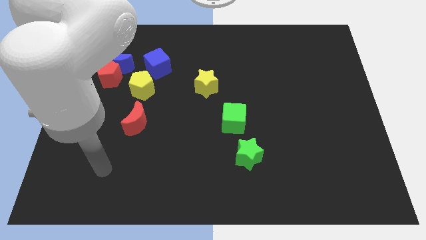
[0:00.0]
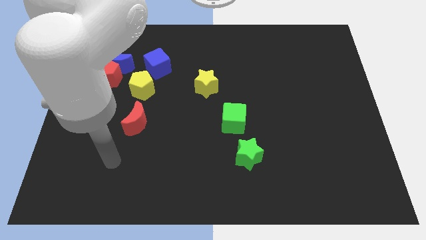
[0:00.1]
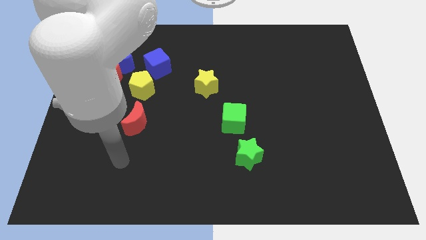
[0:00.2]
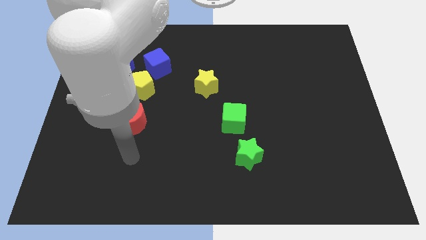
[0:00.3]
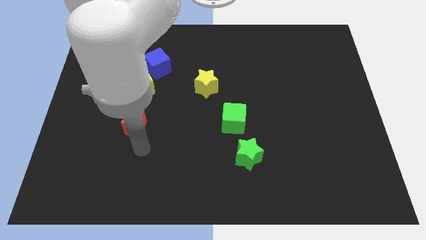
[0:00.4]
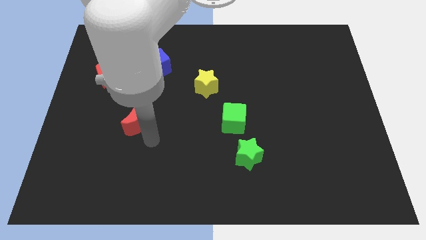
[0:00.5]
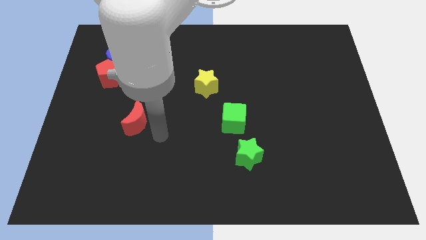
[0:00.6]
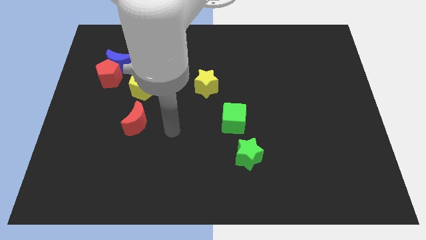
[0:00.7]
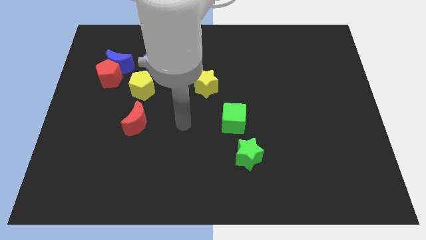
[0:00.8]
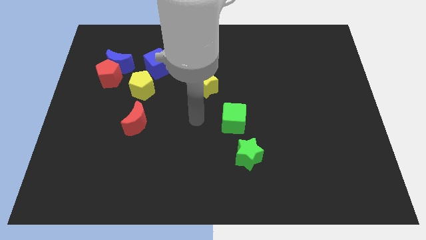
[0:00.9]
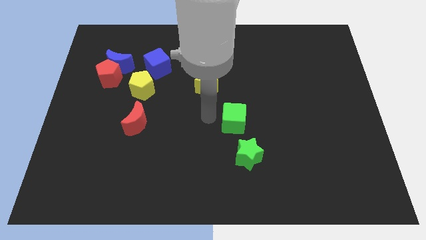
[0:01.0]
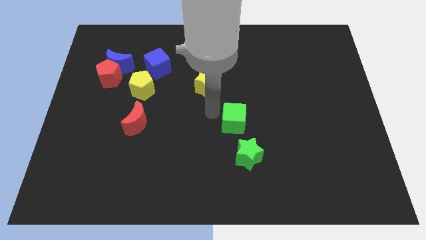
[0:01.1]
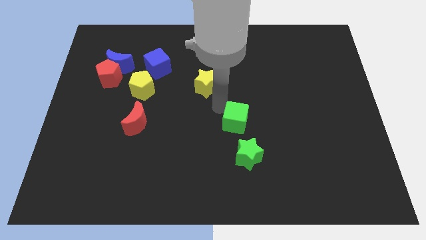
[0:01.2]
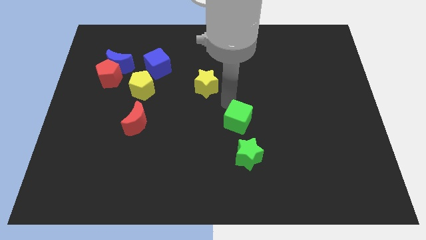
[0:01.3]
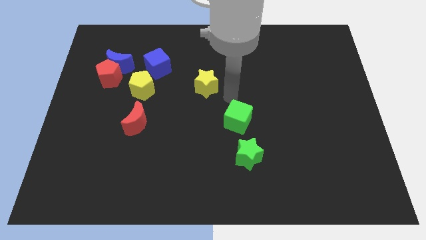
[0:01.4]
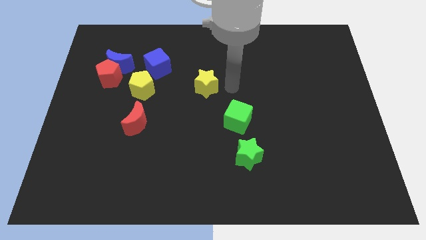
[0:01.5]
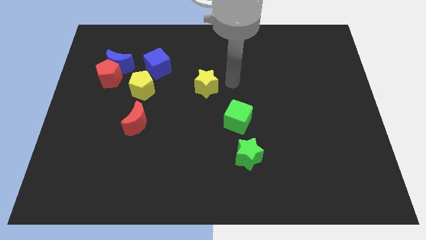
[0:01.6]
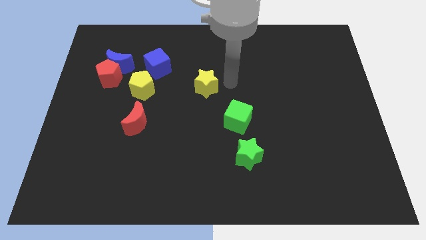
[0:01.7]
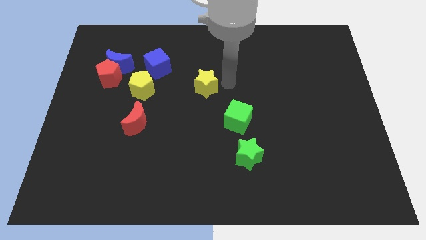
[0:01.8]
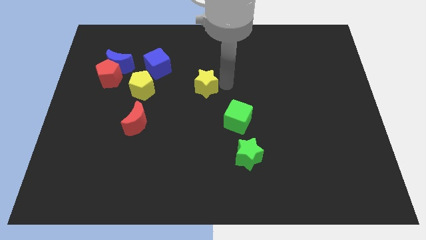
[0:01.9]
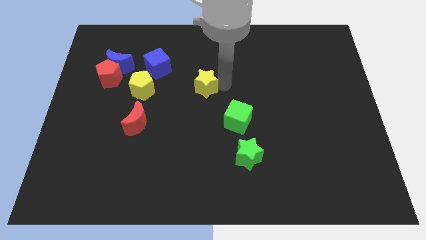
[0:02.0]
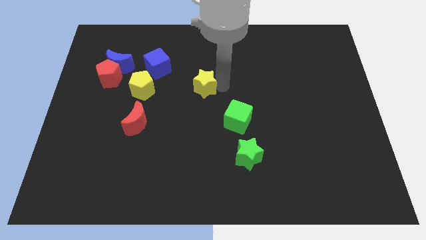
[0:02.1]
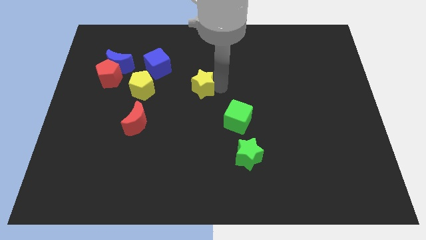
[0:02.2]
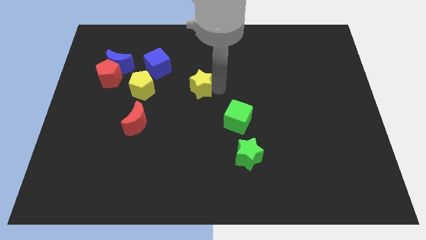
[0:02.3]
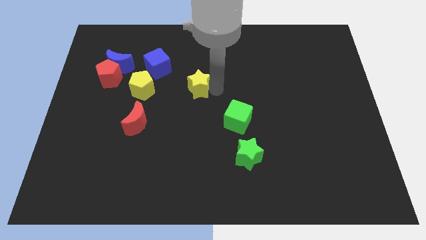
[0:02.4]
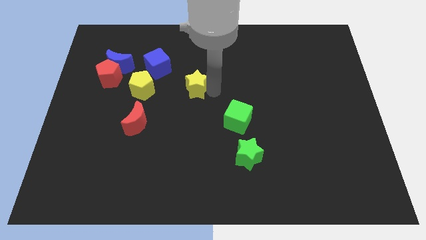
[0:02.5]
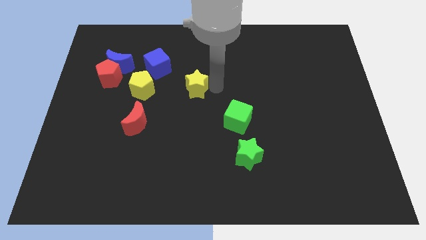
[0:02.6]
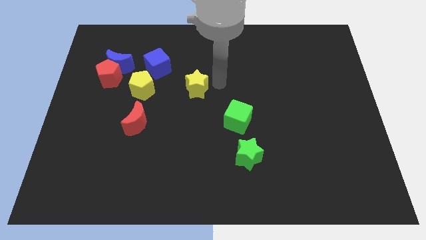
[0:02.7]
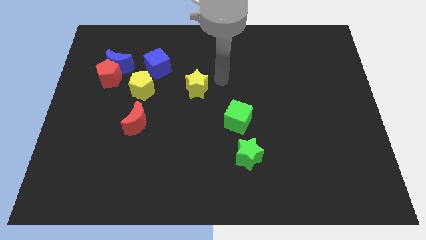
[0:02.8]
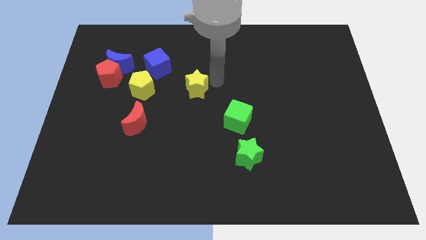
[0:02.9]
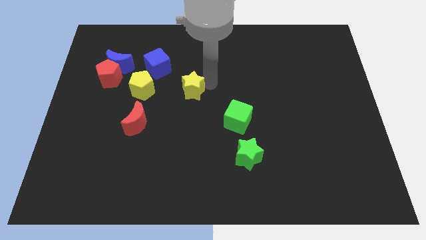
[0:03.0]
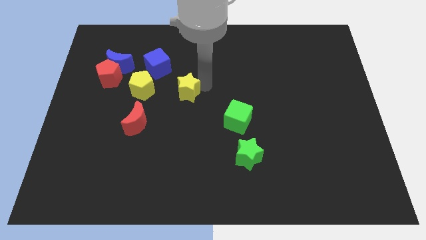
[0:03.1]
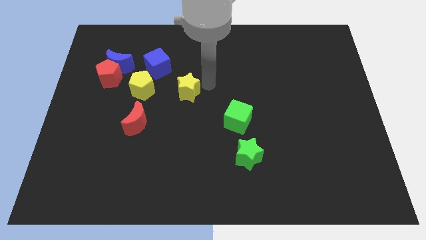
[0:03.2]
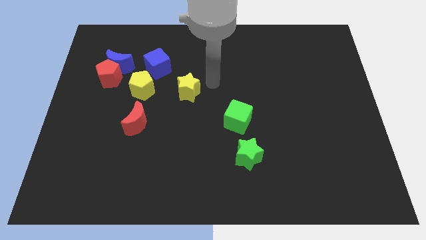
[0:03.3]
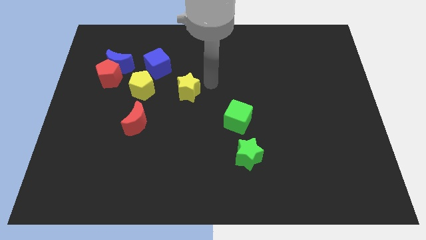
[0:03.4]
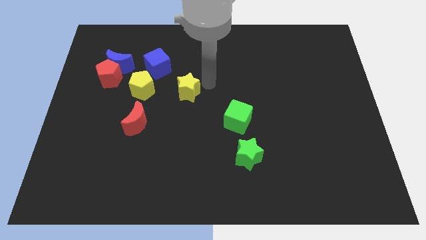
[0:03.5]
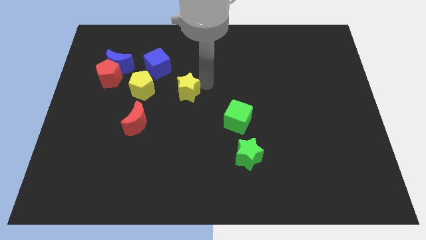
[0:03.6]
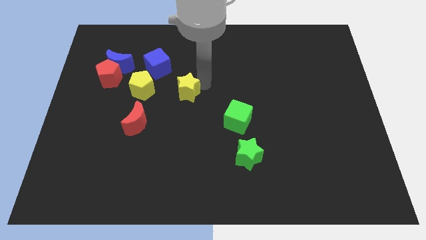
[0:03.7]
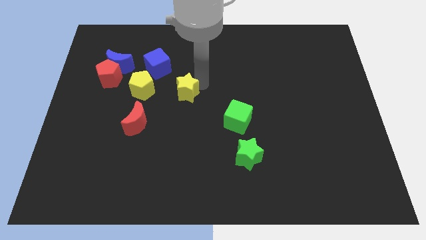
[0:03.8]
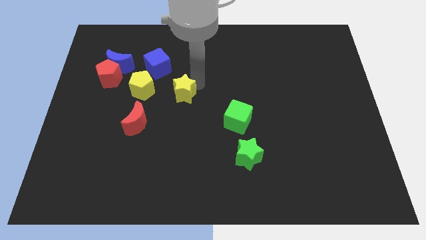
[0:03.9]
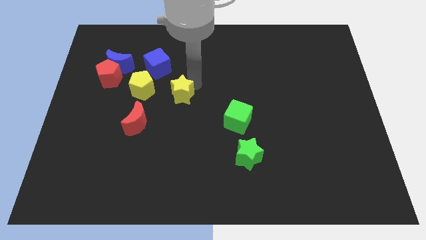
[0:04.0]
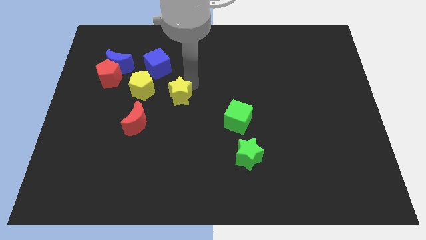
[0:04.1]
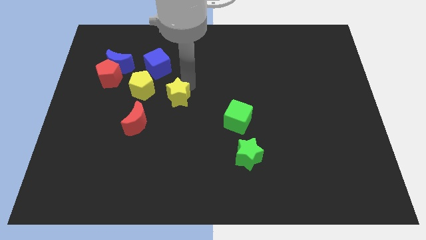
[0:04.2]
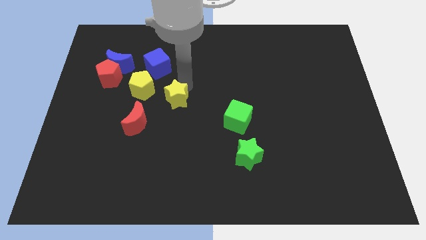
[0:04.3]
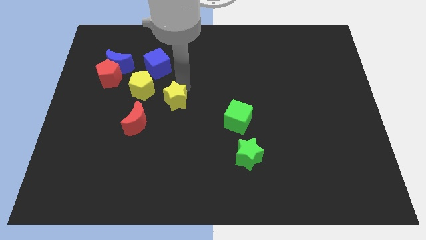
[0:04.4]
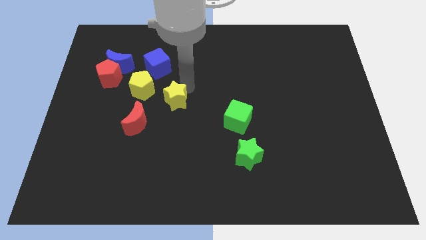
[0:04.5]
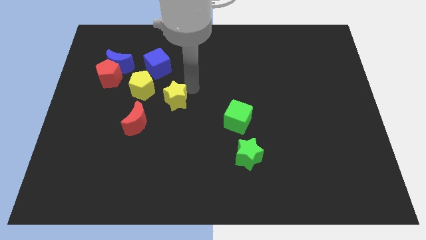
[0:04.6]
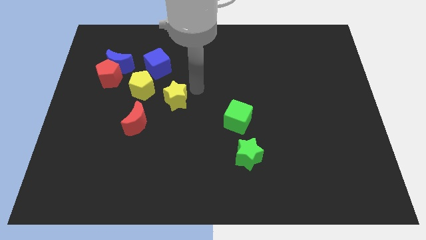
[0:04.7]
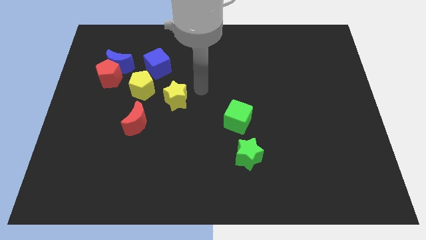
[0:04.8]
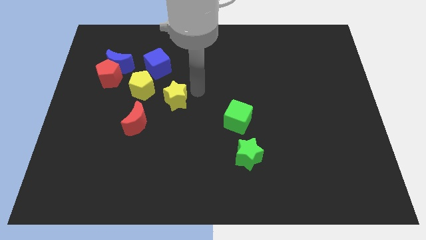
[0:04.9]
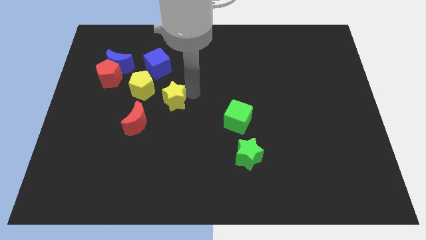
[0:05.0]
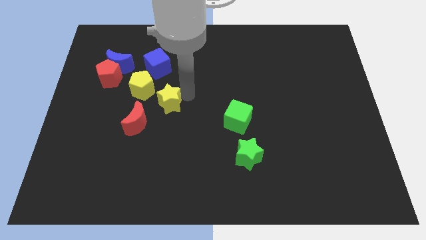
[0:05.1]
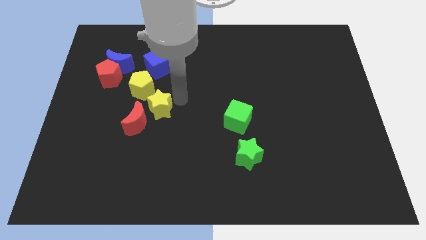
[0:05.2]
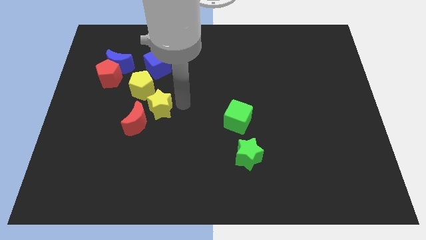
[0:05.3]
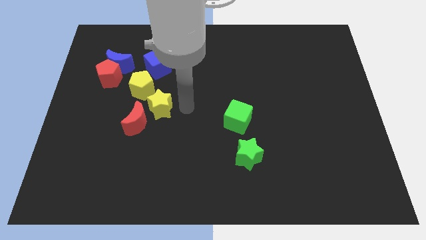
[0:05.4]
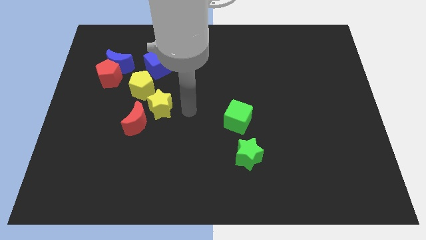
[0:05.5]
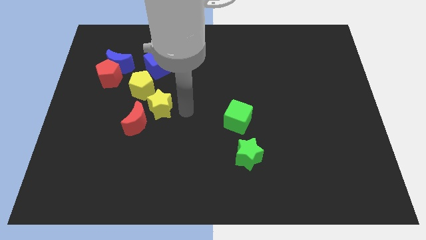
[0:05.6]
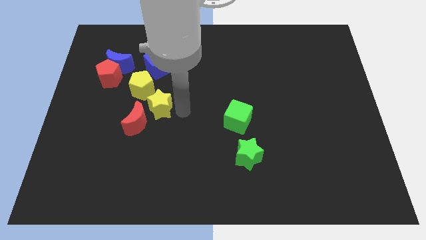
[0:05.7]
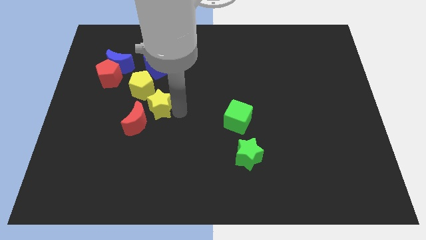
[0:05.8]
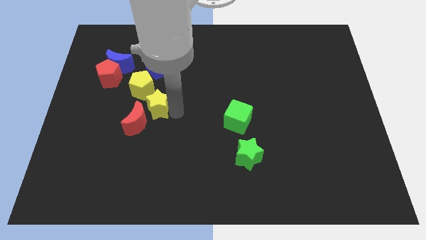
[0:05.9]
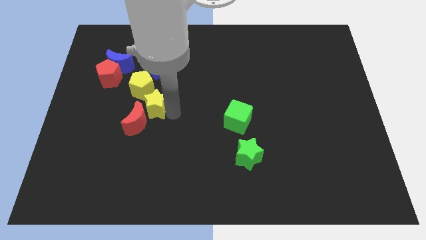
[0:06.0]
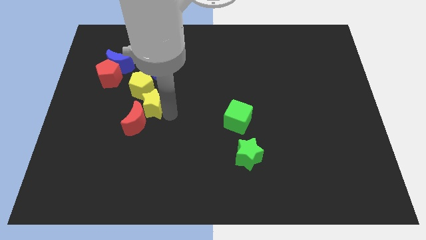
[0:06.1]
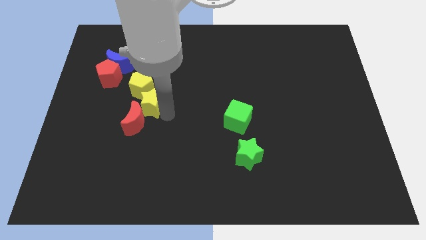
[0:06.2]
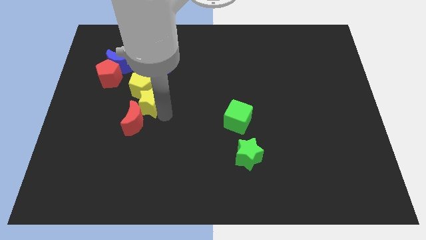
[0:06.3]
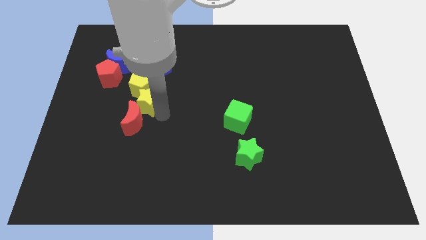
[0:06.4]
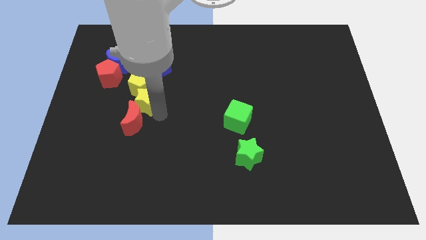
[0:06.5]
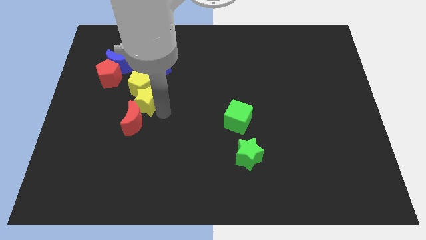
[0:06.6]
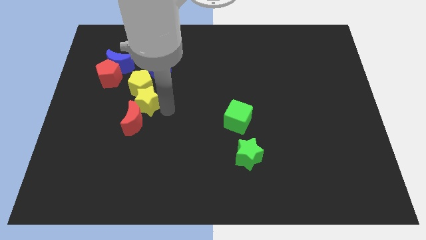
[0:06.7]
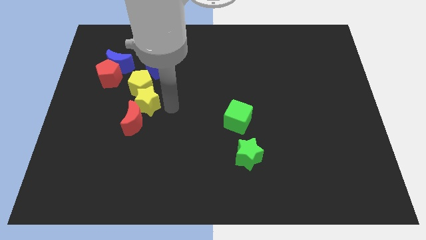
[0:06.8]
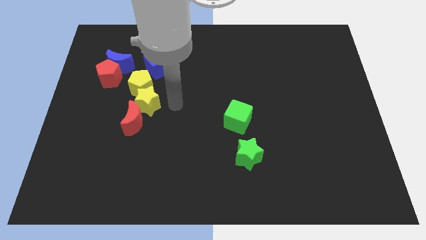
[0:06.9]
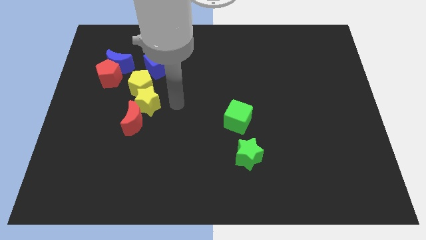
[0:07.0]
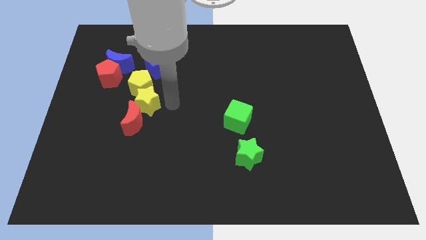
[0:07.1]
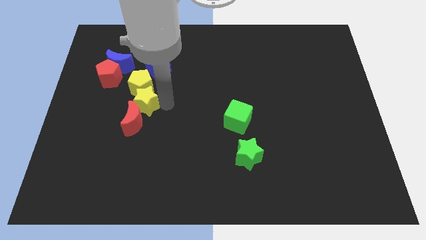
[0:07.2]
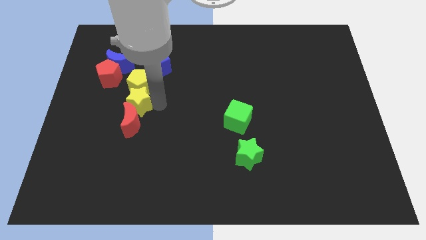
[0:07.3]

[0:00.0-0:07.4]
put the yellow star diagonally down and to the left of the yellow pentagon

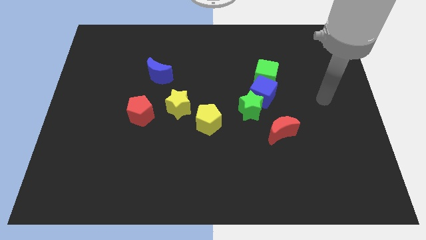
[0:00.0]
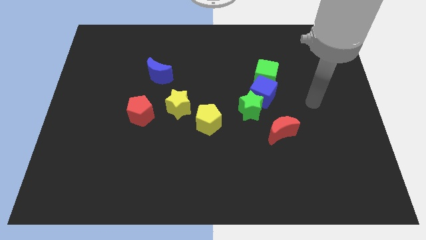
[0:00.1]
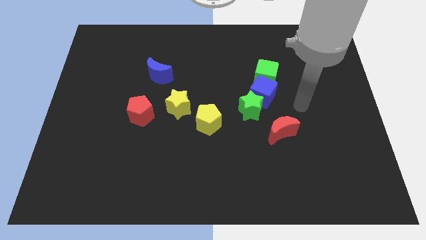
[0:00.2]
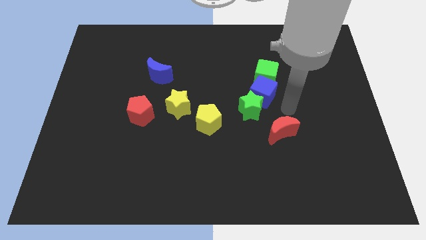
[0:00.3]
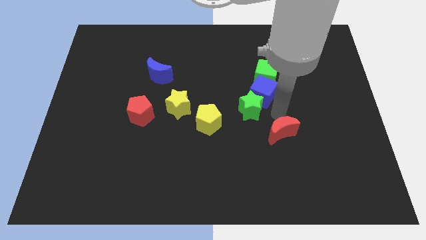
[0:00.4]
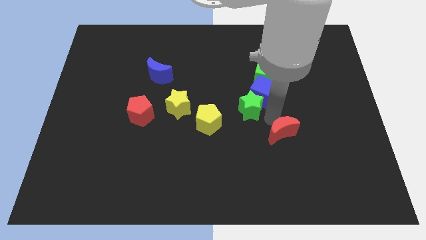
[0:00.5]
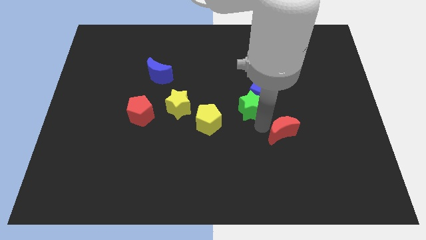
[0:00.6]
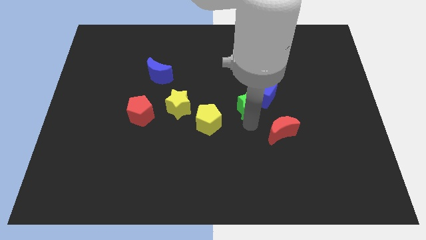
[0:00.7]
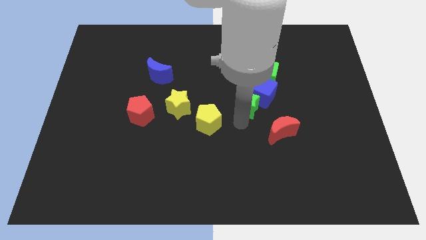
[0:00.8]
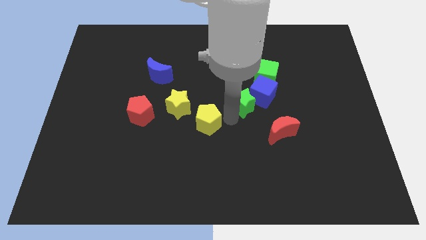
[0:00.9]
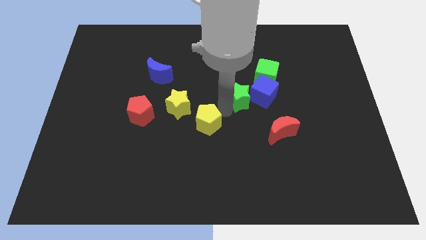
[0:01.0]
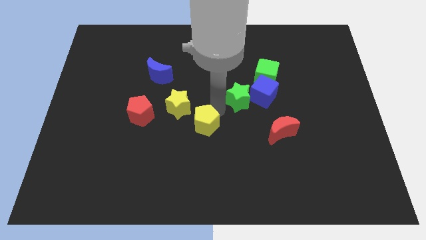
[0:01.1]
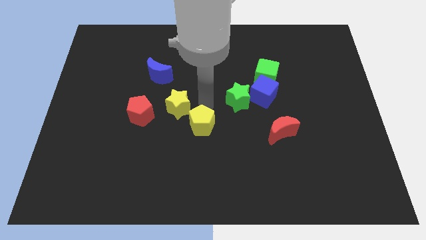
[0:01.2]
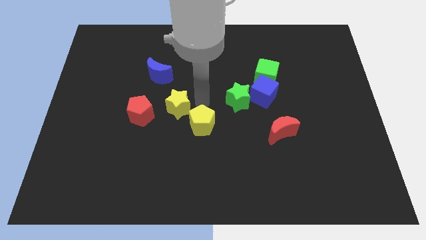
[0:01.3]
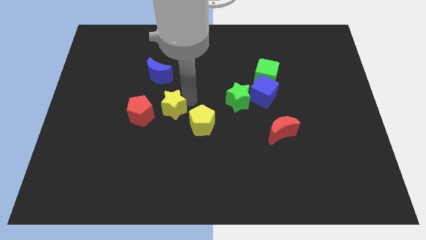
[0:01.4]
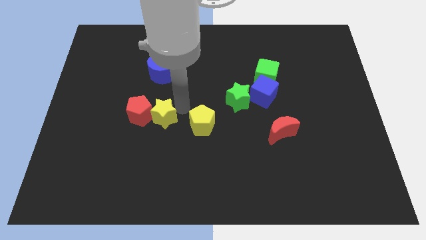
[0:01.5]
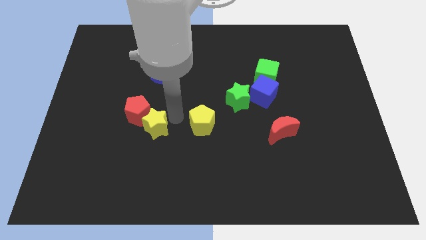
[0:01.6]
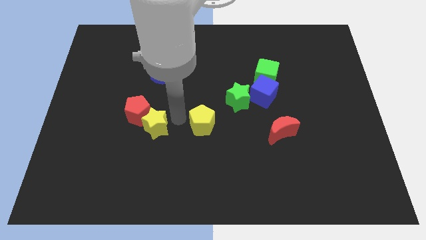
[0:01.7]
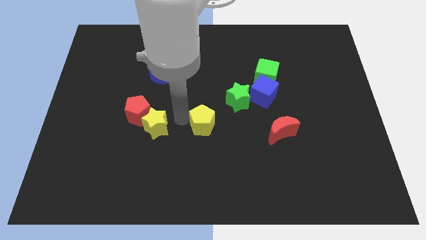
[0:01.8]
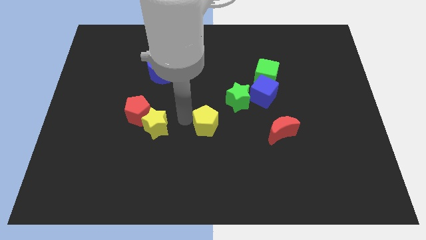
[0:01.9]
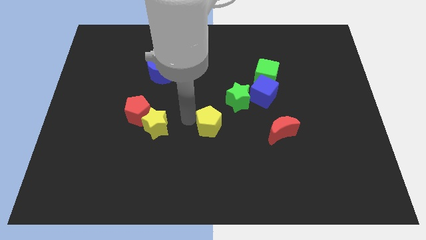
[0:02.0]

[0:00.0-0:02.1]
slide the yellow pentagon left of the red moon
